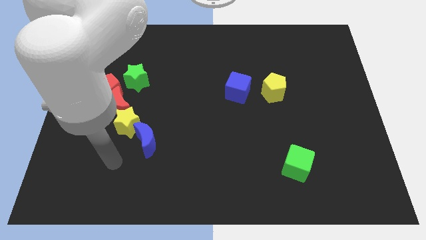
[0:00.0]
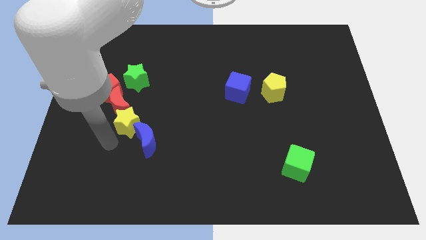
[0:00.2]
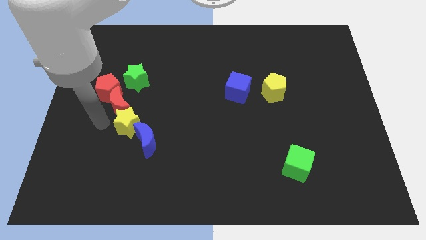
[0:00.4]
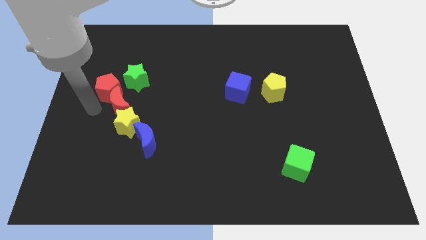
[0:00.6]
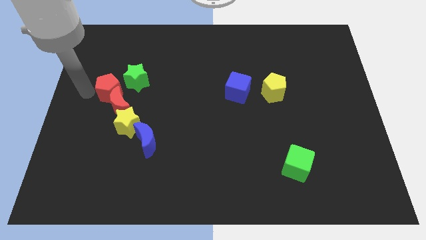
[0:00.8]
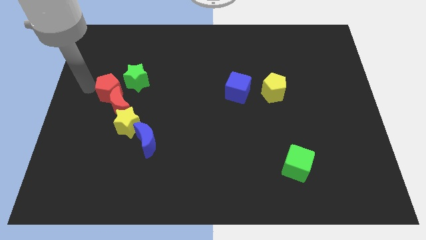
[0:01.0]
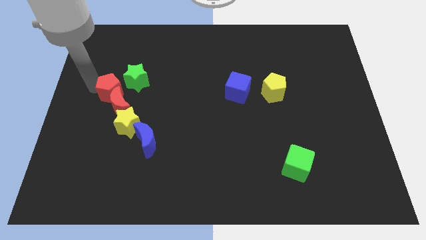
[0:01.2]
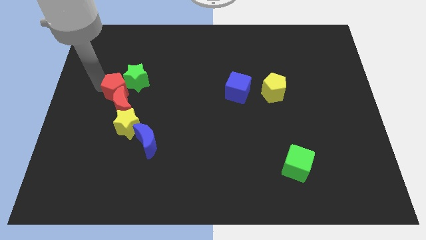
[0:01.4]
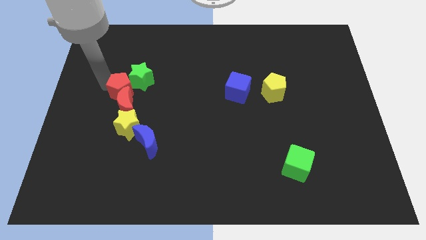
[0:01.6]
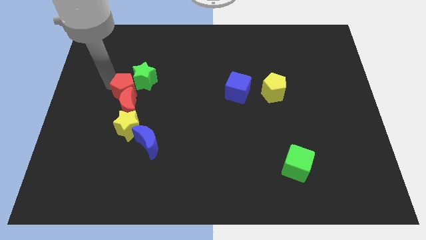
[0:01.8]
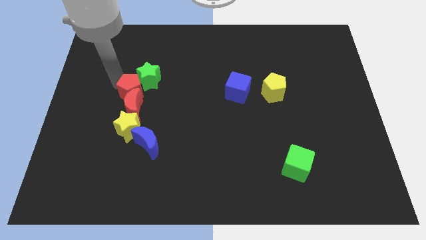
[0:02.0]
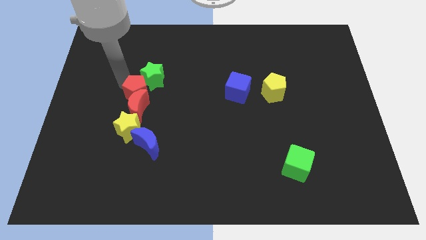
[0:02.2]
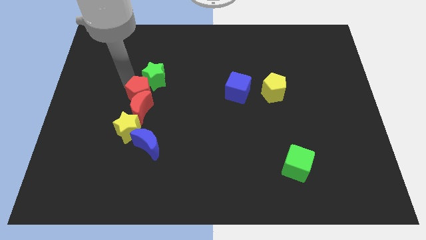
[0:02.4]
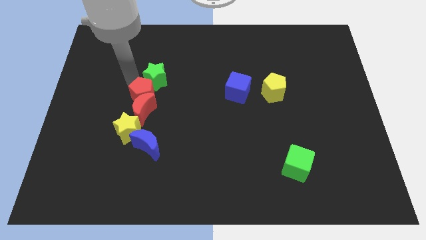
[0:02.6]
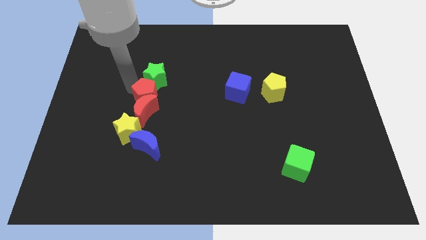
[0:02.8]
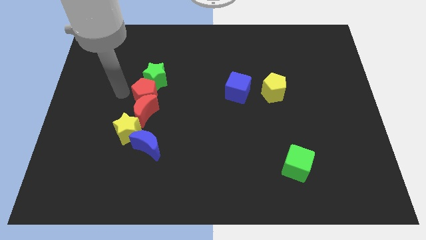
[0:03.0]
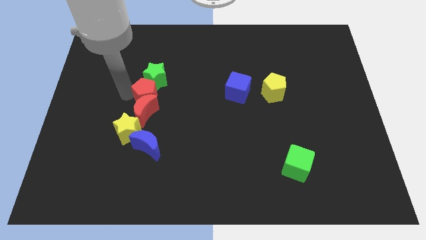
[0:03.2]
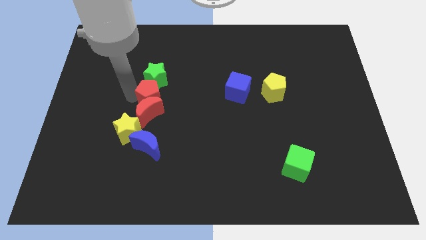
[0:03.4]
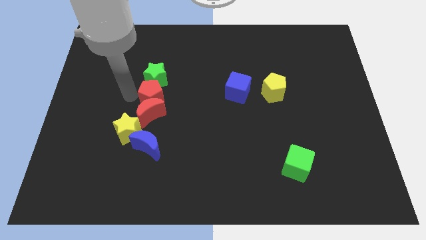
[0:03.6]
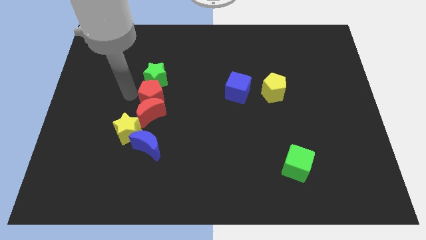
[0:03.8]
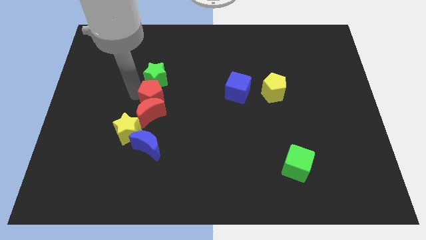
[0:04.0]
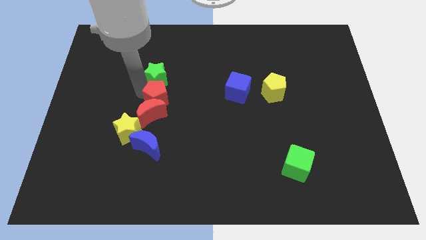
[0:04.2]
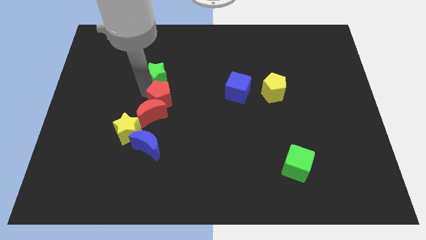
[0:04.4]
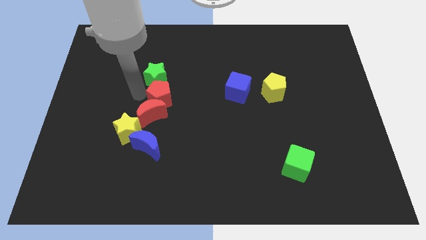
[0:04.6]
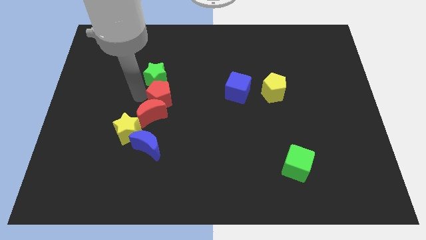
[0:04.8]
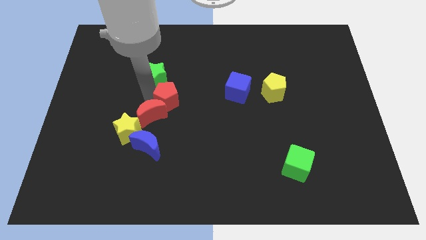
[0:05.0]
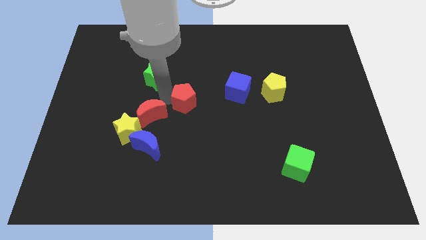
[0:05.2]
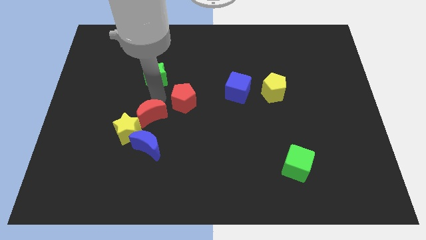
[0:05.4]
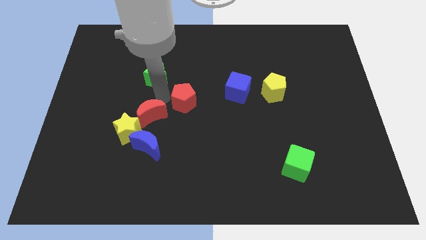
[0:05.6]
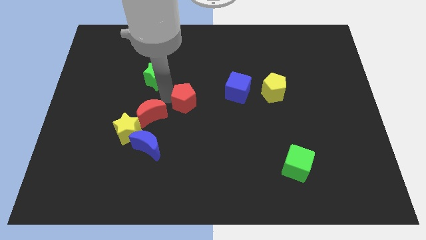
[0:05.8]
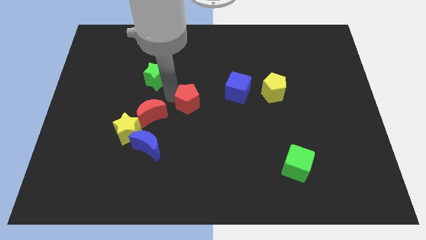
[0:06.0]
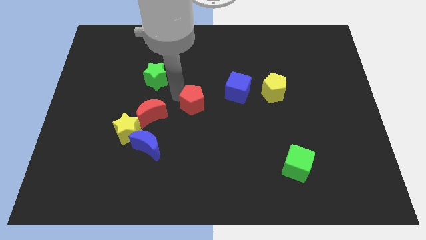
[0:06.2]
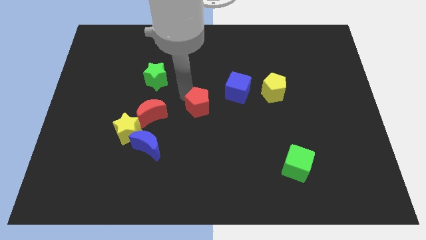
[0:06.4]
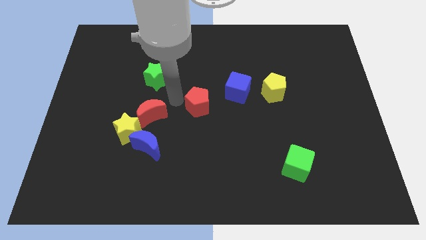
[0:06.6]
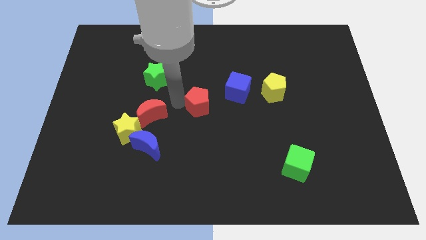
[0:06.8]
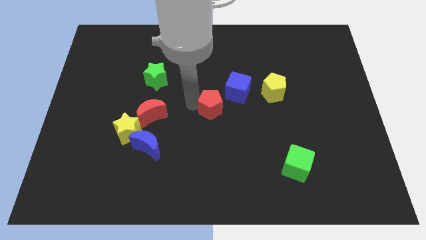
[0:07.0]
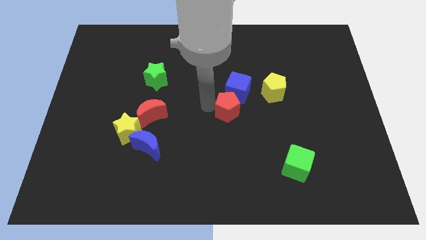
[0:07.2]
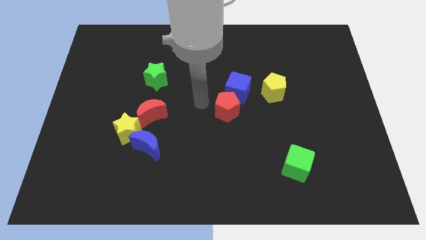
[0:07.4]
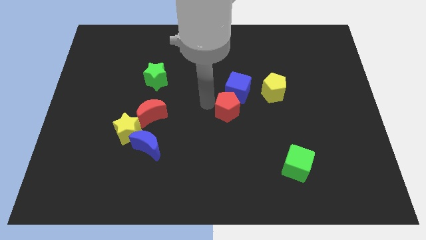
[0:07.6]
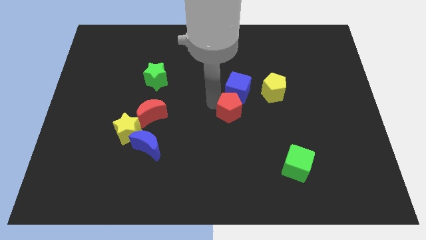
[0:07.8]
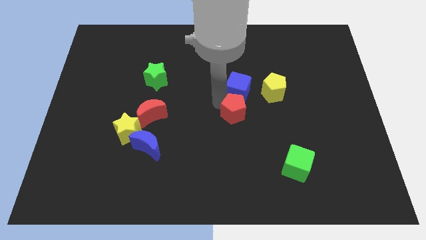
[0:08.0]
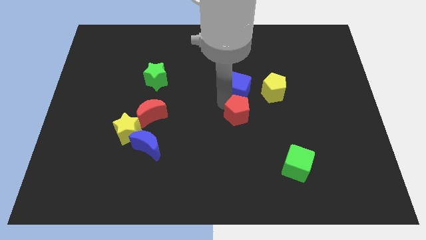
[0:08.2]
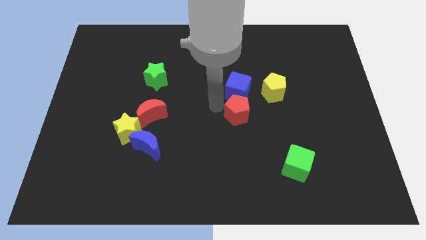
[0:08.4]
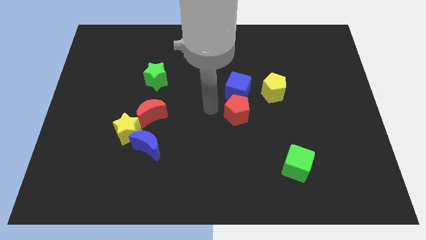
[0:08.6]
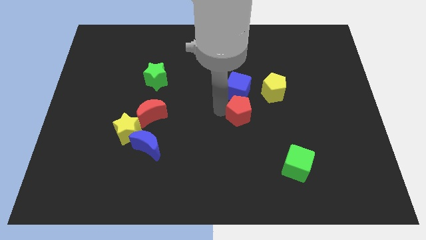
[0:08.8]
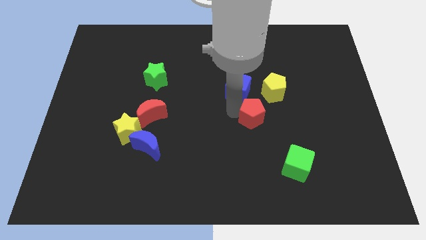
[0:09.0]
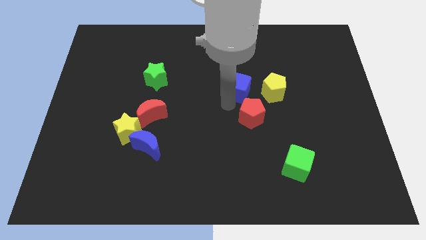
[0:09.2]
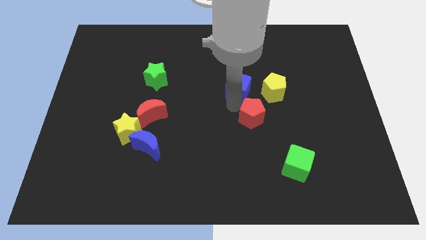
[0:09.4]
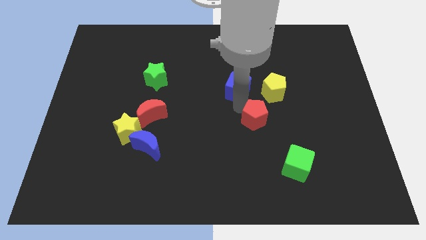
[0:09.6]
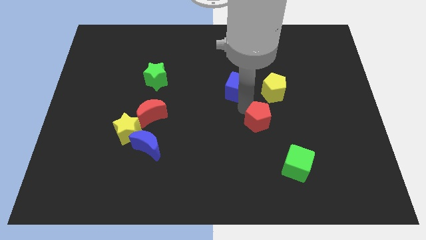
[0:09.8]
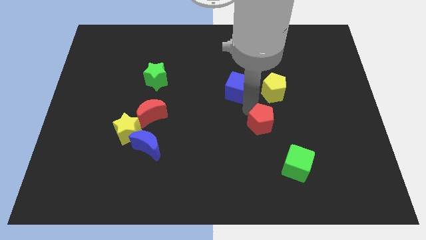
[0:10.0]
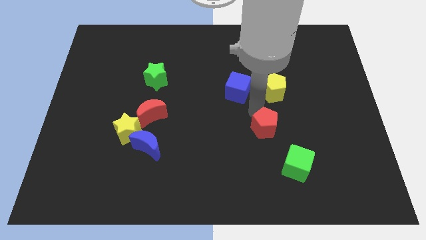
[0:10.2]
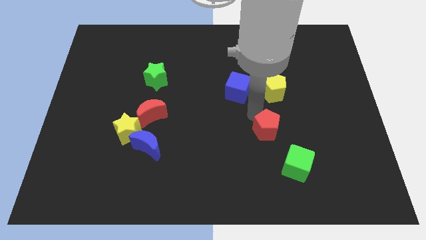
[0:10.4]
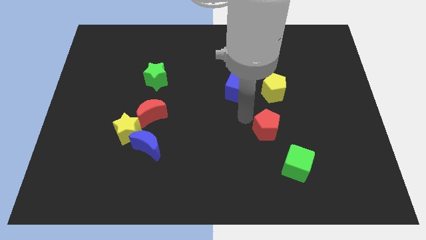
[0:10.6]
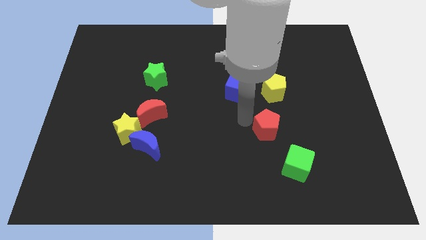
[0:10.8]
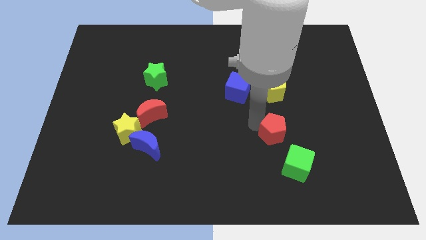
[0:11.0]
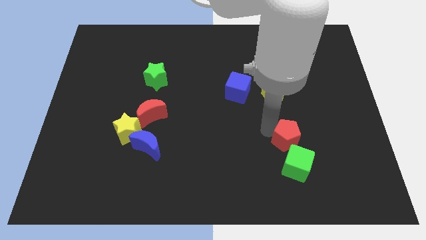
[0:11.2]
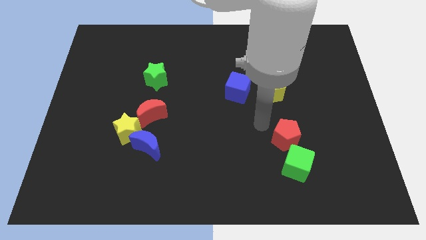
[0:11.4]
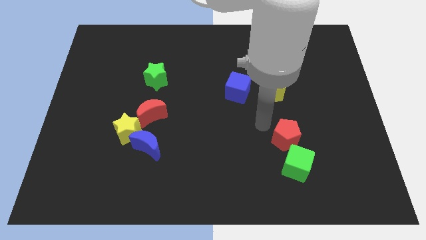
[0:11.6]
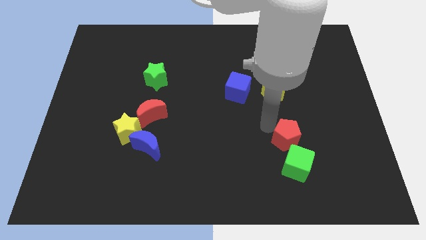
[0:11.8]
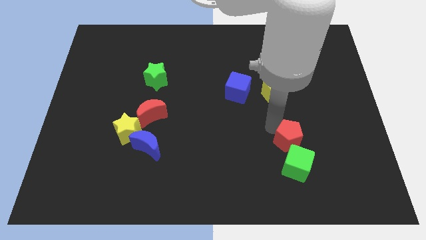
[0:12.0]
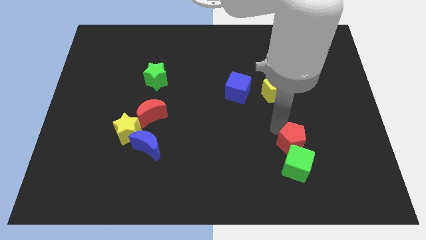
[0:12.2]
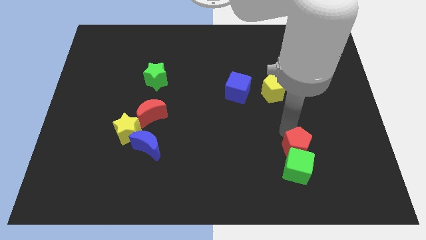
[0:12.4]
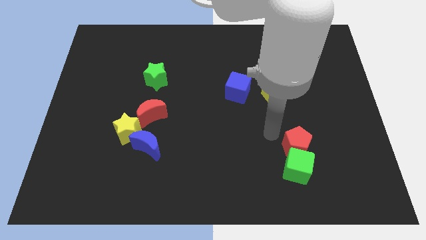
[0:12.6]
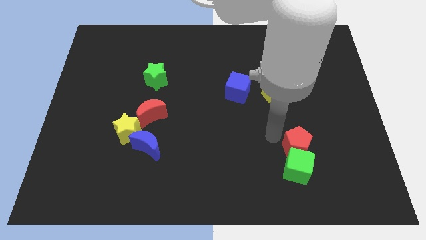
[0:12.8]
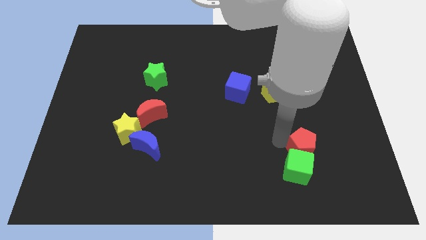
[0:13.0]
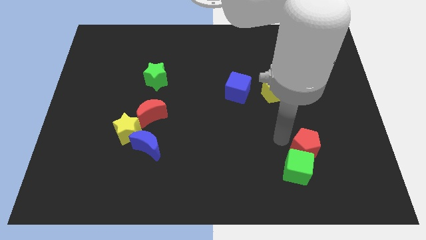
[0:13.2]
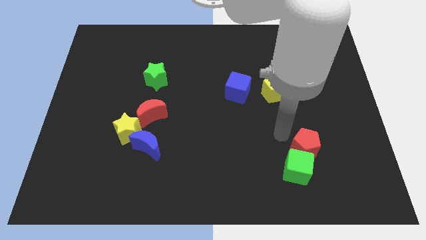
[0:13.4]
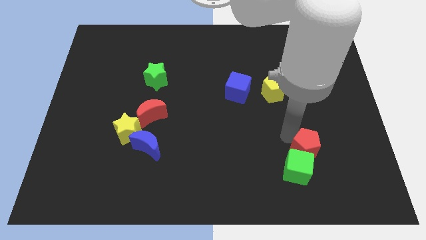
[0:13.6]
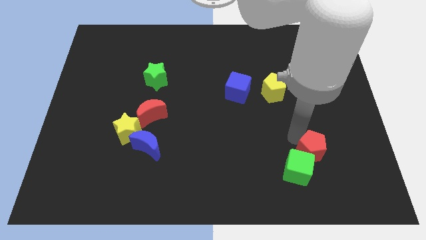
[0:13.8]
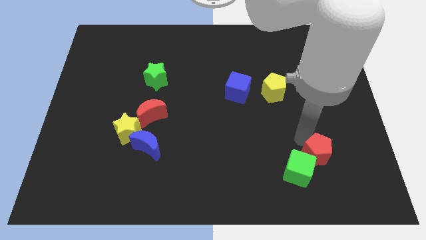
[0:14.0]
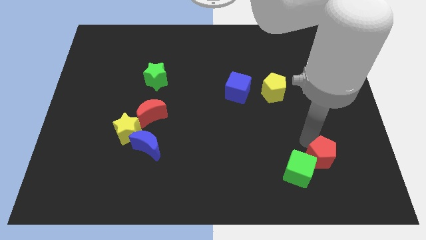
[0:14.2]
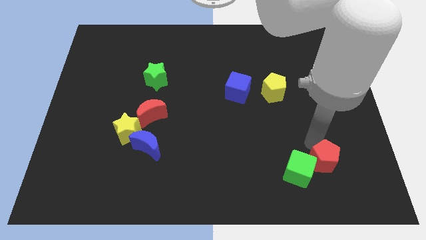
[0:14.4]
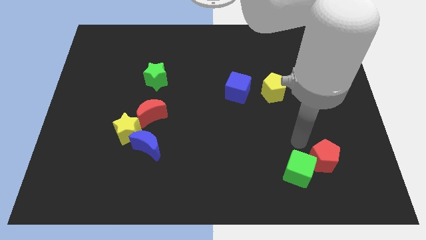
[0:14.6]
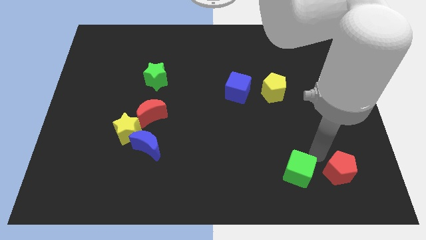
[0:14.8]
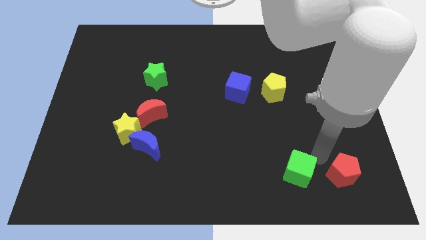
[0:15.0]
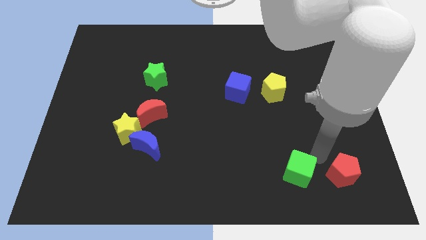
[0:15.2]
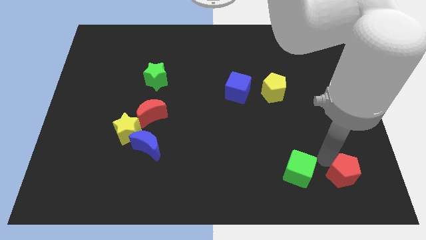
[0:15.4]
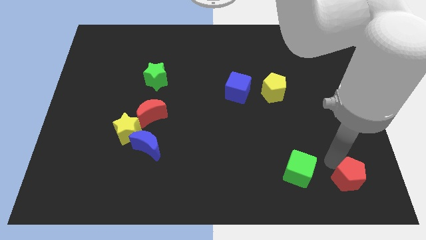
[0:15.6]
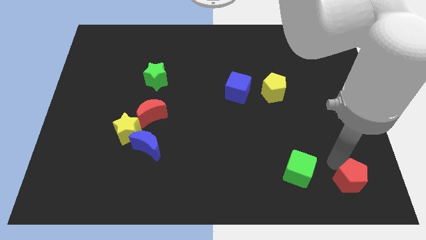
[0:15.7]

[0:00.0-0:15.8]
put the red pentagon to the bottom right corner
